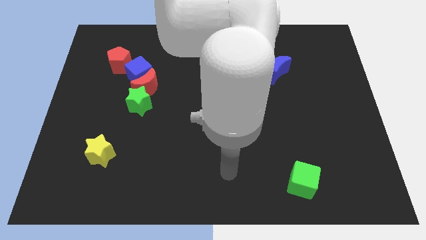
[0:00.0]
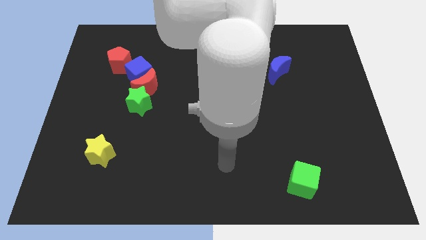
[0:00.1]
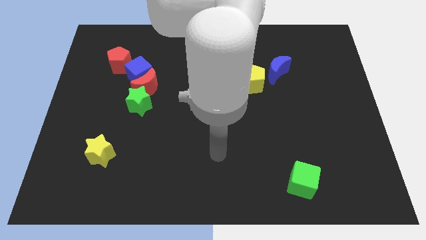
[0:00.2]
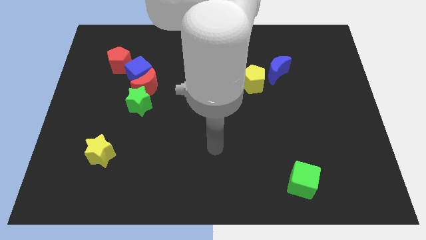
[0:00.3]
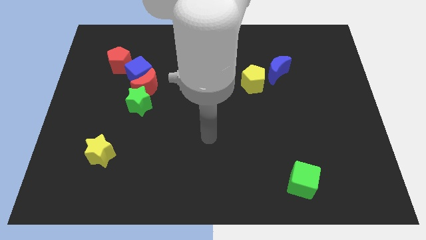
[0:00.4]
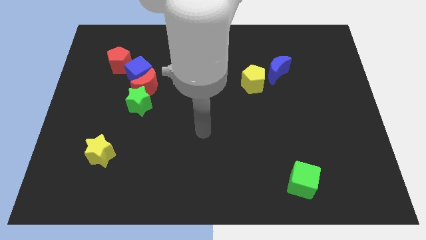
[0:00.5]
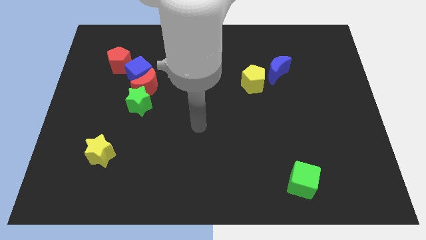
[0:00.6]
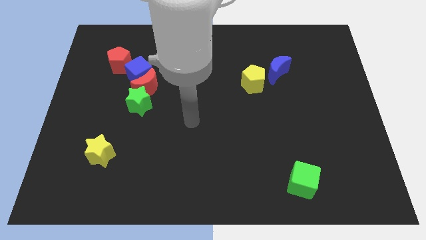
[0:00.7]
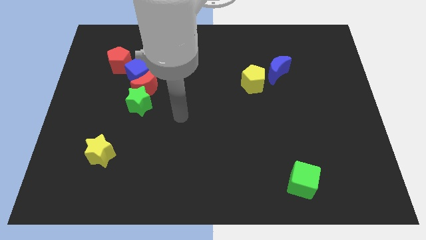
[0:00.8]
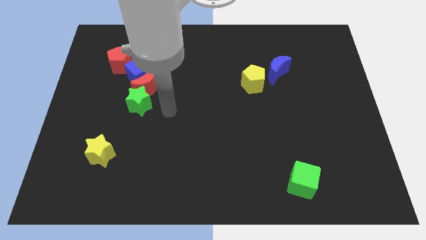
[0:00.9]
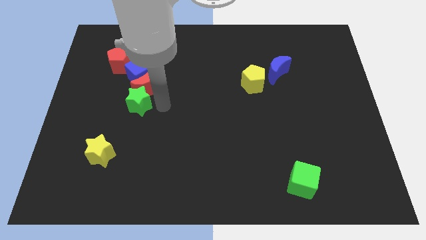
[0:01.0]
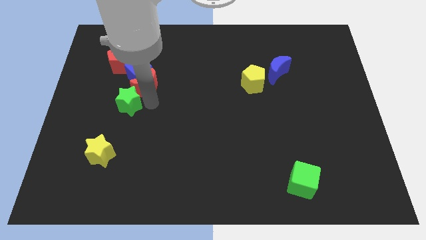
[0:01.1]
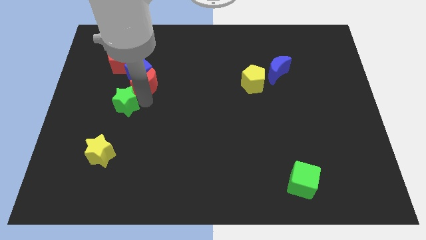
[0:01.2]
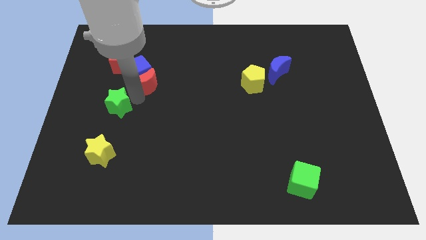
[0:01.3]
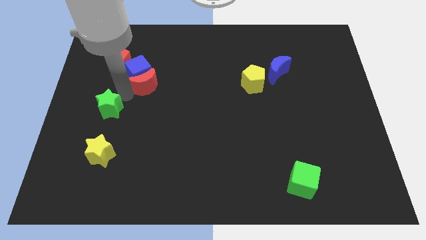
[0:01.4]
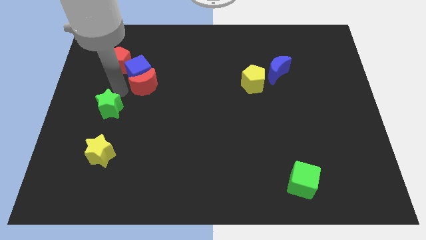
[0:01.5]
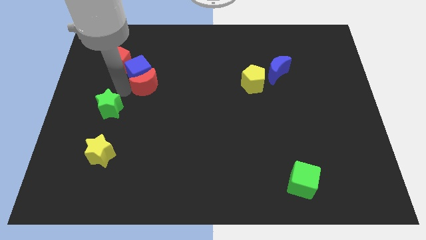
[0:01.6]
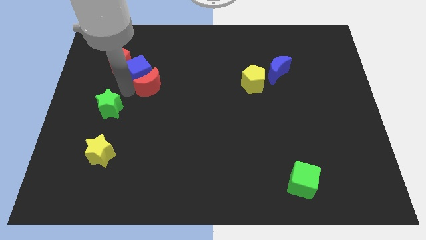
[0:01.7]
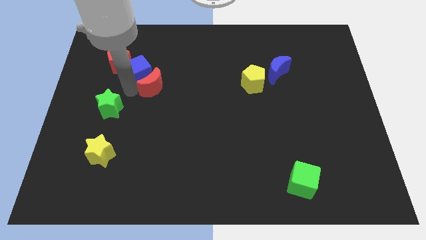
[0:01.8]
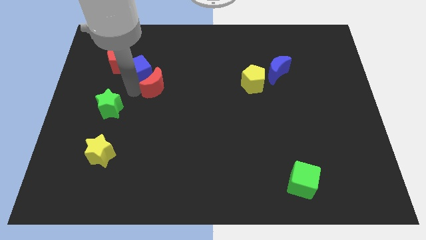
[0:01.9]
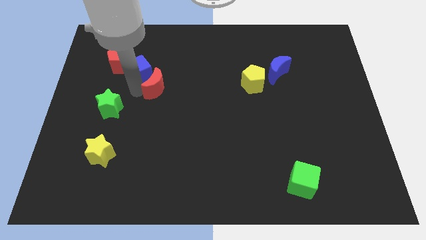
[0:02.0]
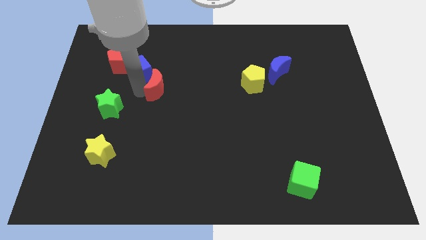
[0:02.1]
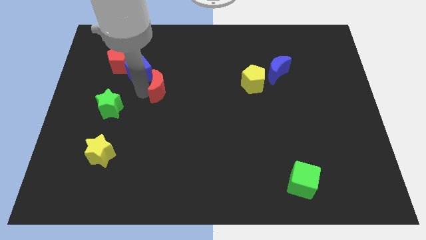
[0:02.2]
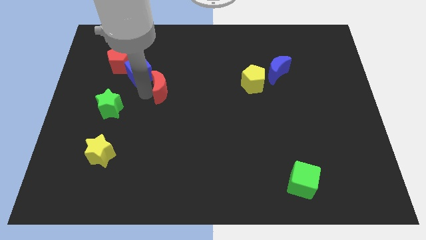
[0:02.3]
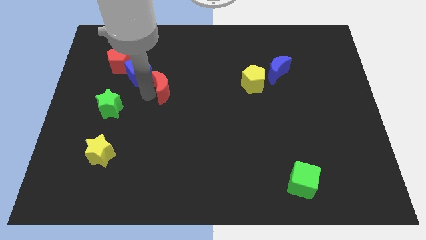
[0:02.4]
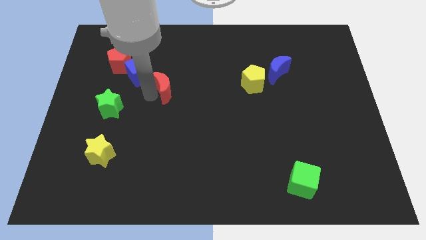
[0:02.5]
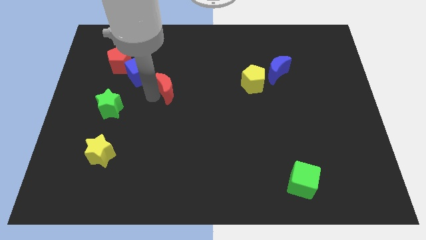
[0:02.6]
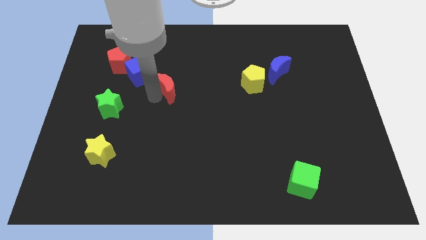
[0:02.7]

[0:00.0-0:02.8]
separate the red moon from the blue cube and green star

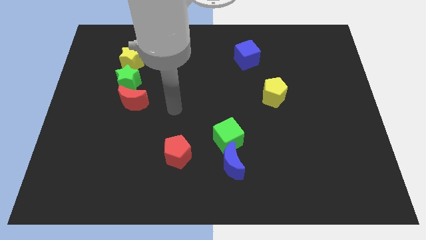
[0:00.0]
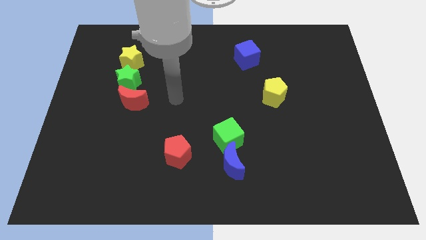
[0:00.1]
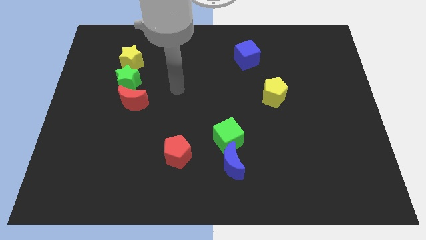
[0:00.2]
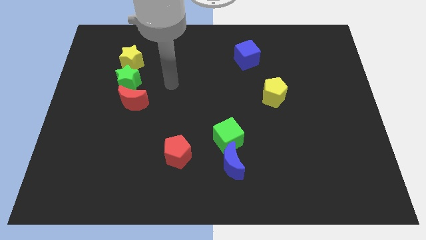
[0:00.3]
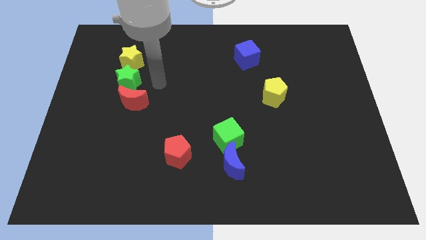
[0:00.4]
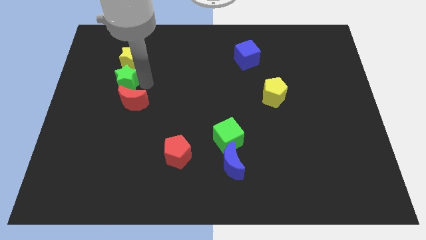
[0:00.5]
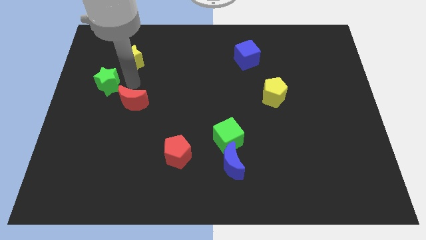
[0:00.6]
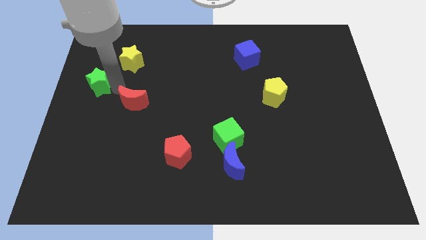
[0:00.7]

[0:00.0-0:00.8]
move the red moon away from the green star

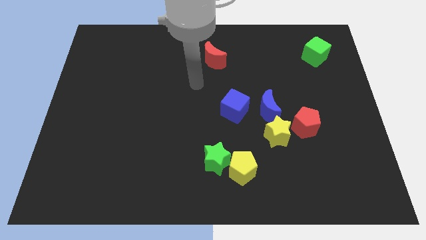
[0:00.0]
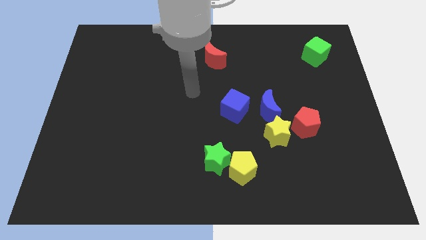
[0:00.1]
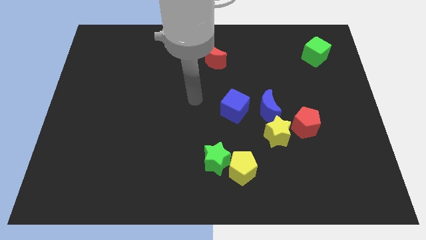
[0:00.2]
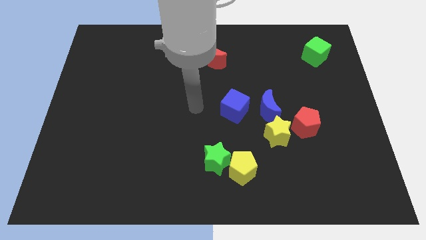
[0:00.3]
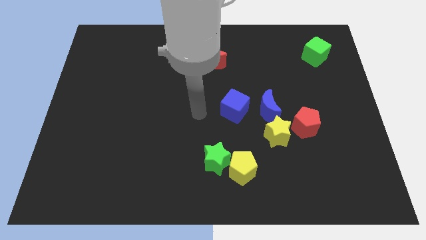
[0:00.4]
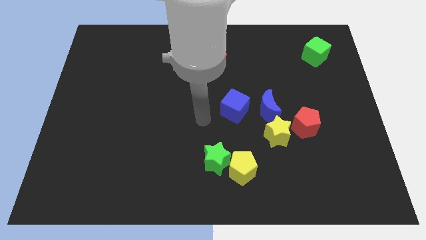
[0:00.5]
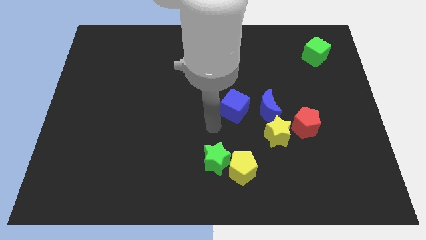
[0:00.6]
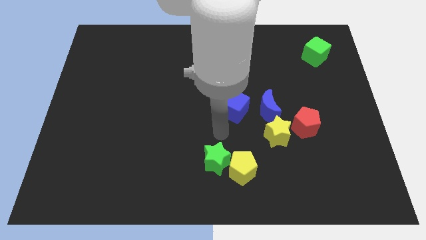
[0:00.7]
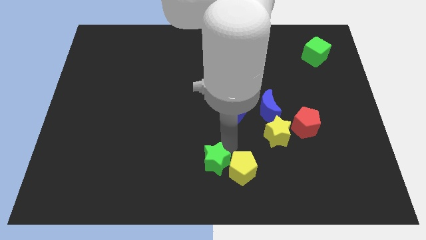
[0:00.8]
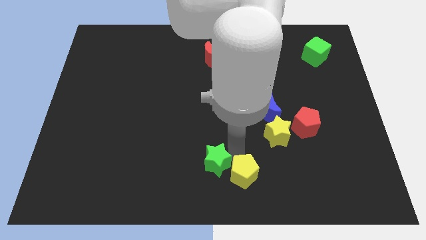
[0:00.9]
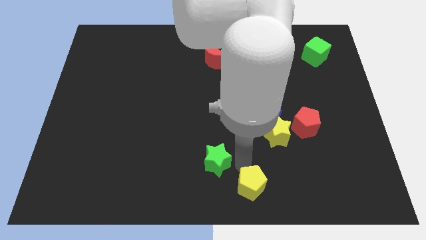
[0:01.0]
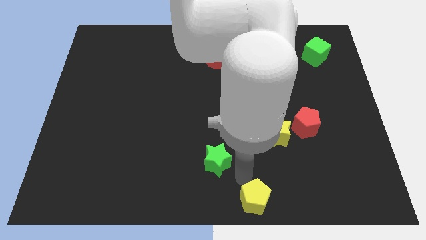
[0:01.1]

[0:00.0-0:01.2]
move the green star away from the yellow pentagon

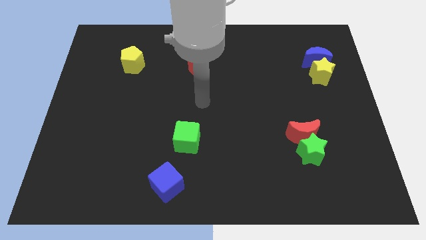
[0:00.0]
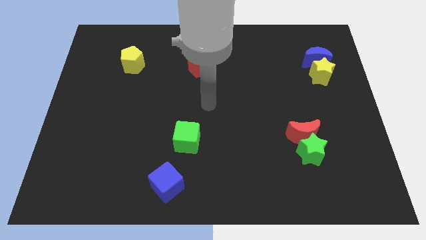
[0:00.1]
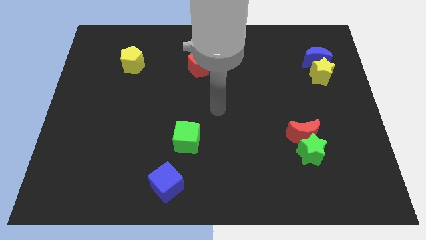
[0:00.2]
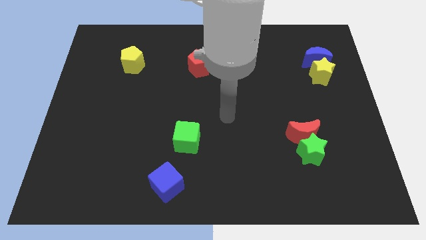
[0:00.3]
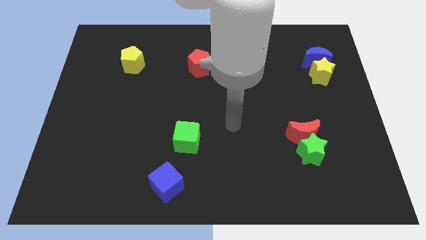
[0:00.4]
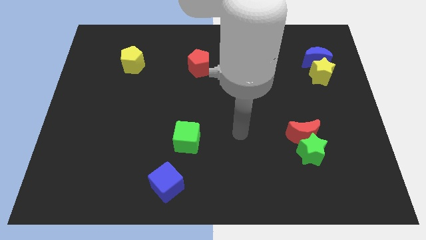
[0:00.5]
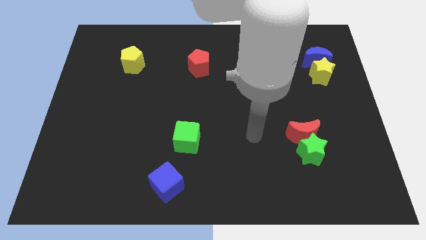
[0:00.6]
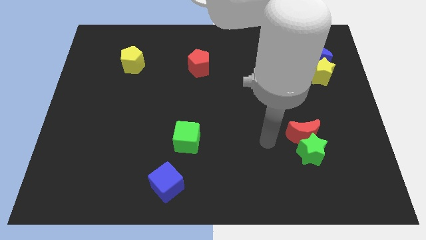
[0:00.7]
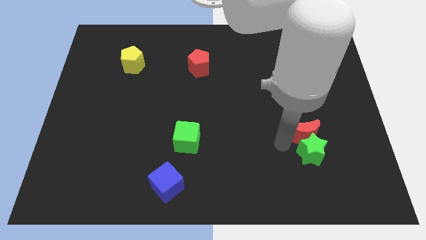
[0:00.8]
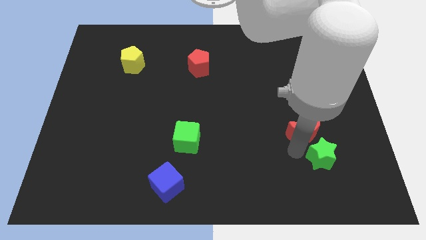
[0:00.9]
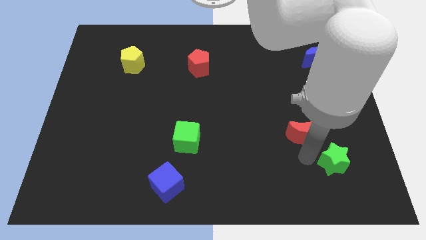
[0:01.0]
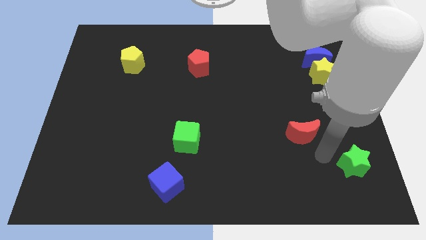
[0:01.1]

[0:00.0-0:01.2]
separate the red moon from the green star

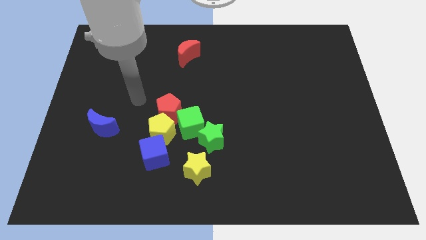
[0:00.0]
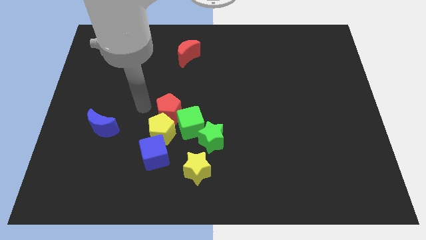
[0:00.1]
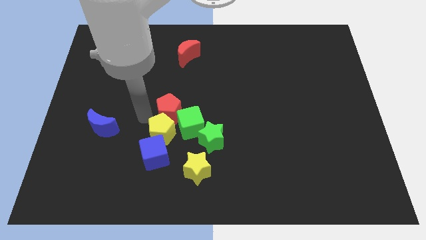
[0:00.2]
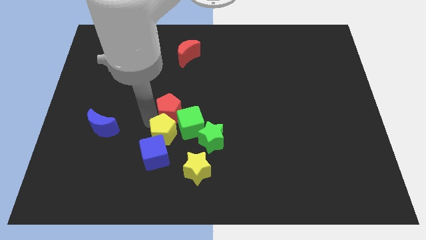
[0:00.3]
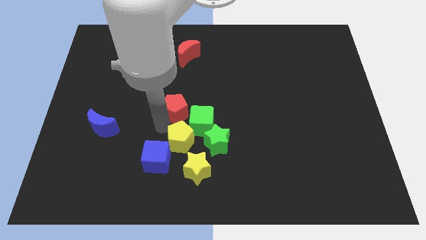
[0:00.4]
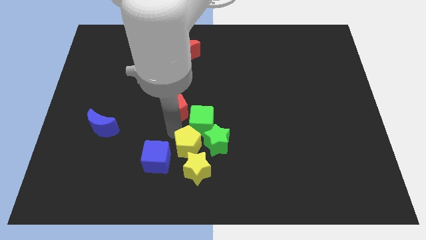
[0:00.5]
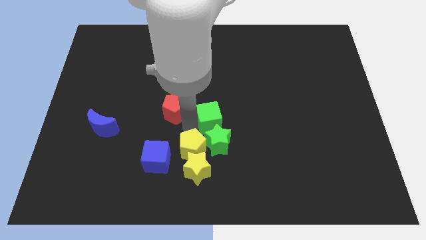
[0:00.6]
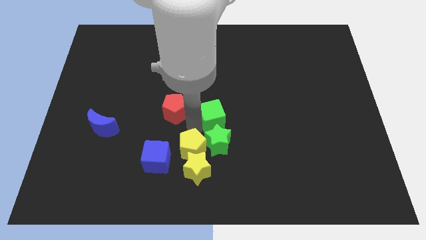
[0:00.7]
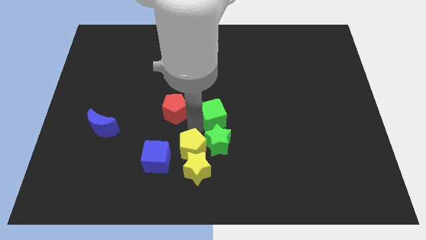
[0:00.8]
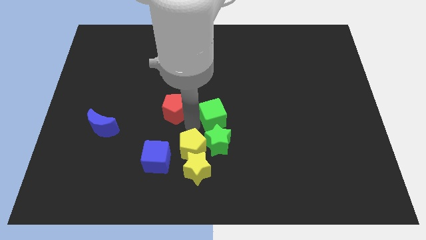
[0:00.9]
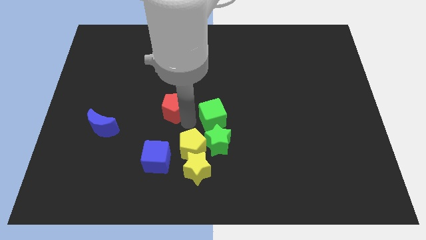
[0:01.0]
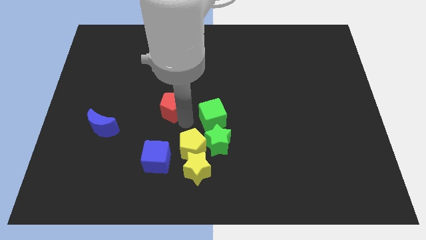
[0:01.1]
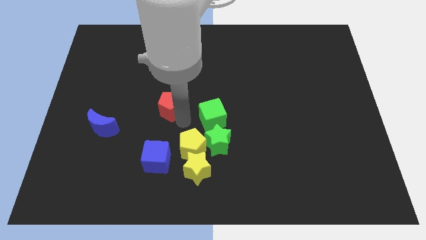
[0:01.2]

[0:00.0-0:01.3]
move the red pentagon away from the yellow pentagon and green cube

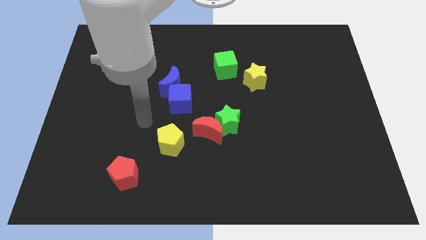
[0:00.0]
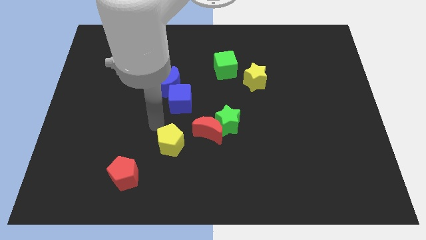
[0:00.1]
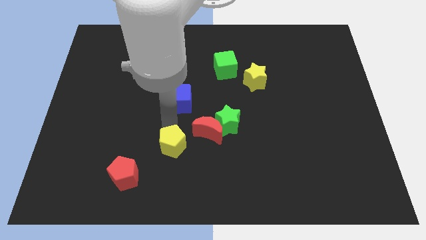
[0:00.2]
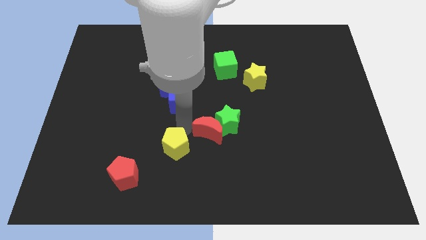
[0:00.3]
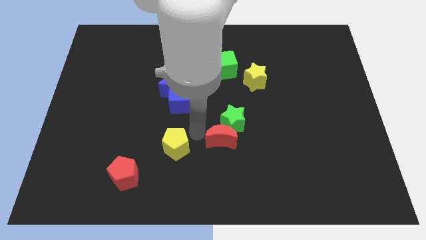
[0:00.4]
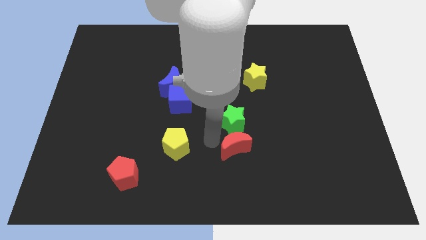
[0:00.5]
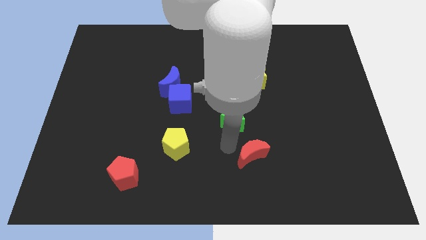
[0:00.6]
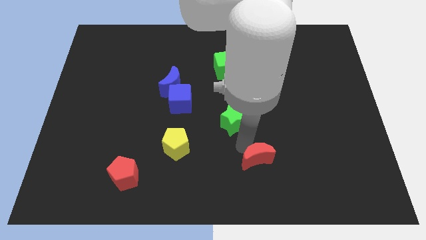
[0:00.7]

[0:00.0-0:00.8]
pull the green star apart from the red moon

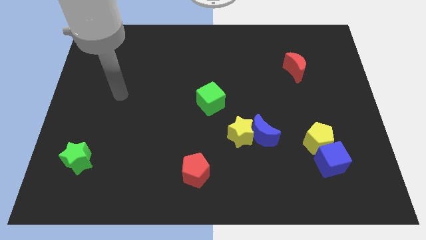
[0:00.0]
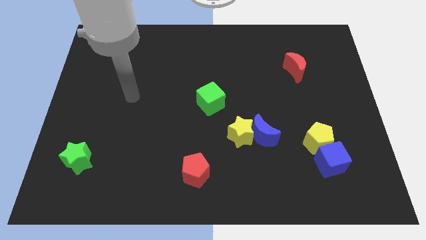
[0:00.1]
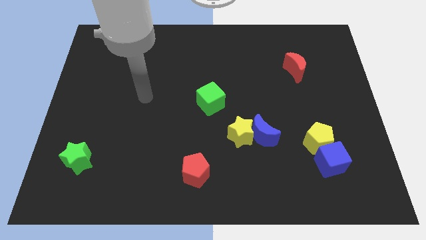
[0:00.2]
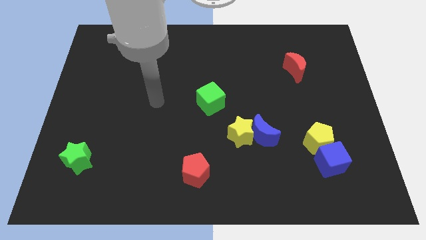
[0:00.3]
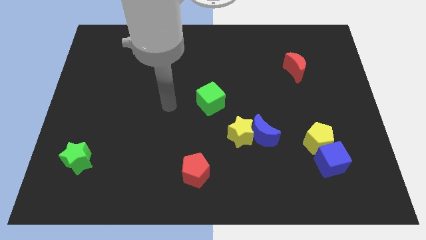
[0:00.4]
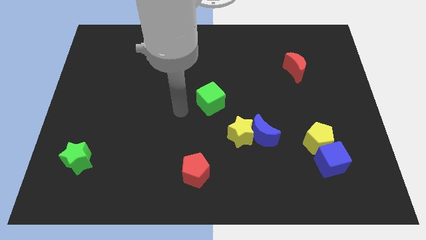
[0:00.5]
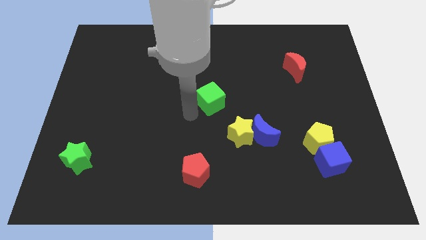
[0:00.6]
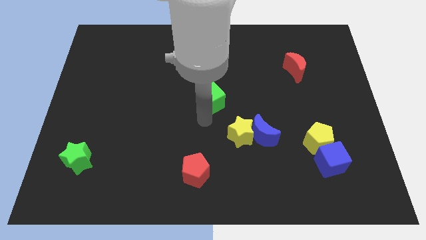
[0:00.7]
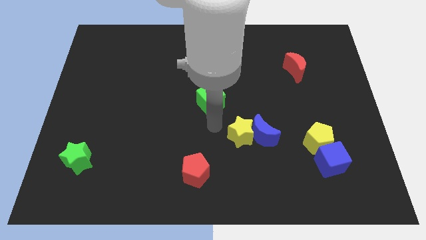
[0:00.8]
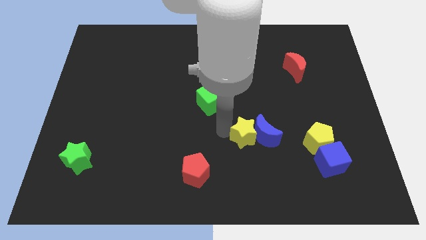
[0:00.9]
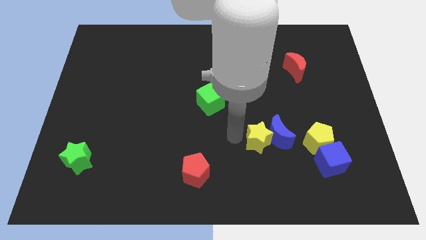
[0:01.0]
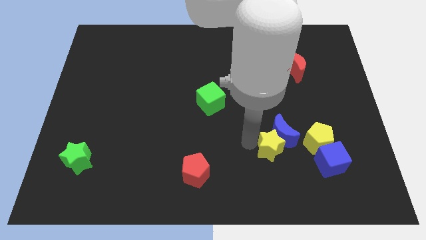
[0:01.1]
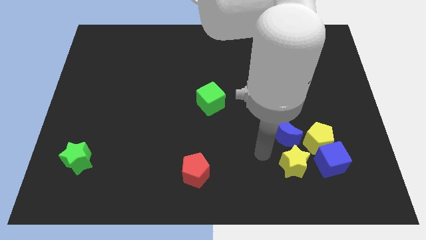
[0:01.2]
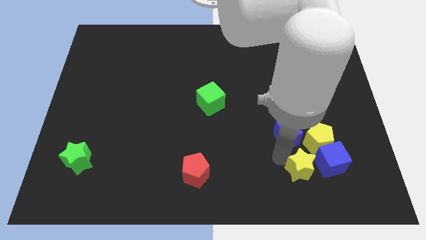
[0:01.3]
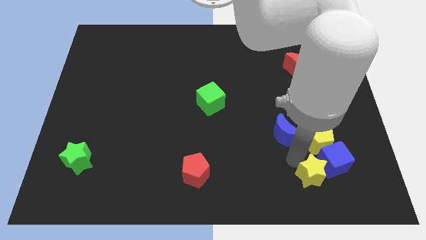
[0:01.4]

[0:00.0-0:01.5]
pull the blue moon apart from the yellow star
